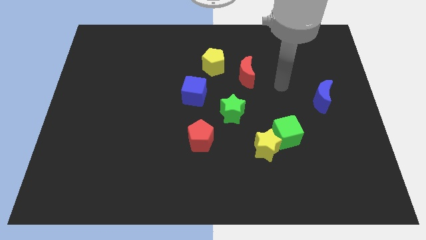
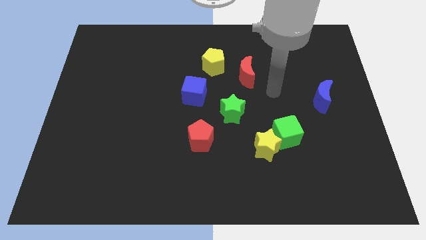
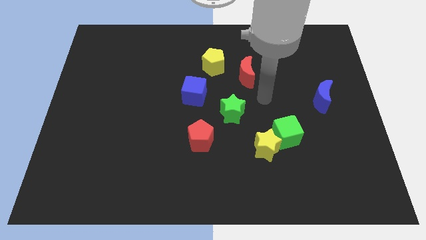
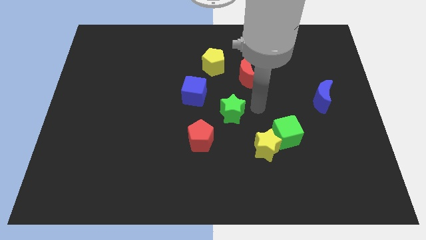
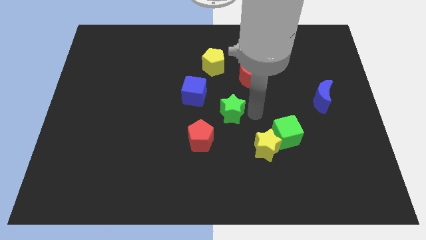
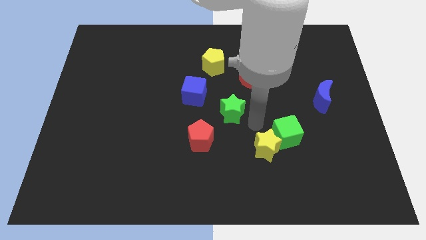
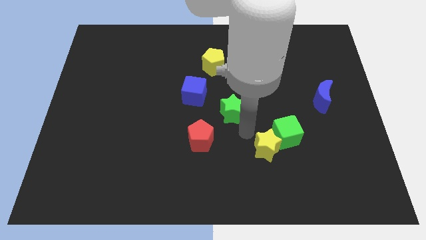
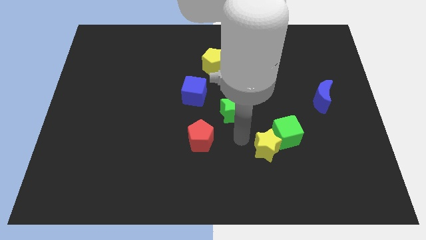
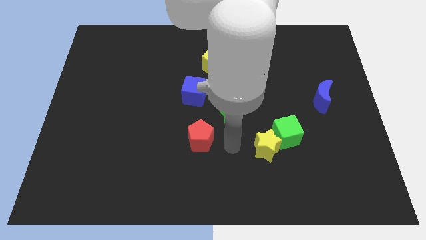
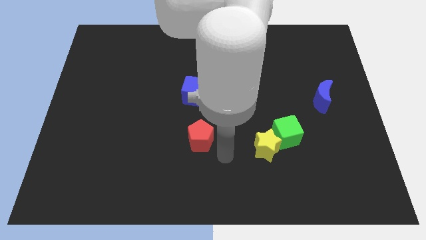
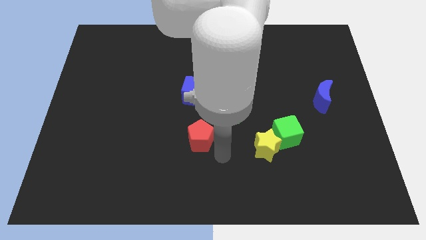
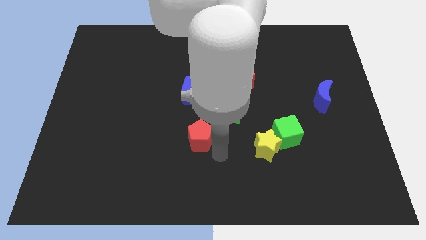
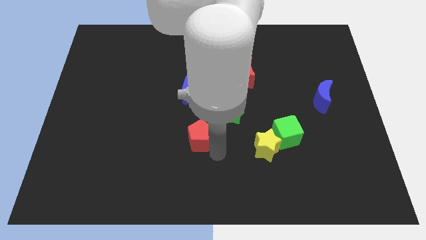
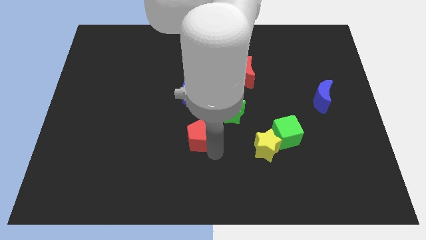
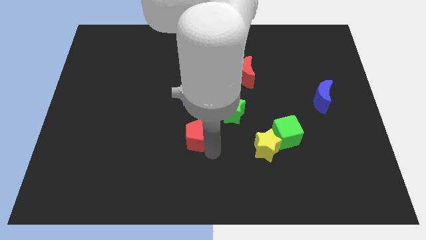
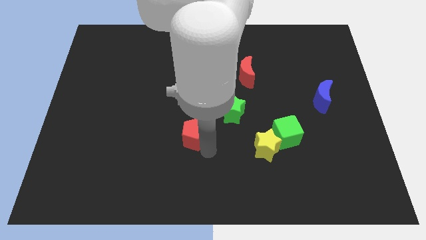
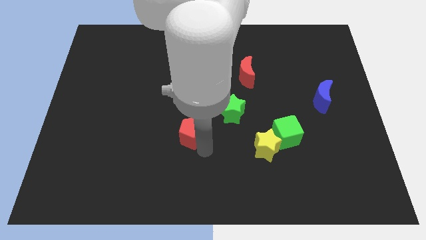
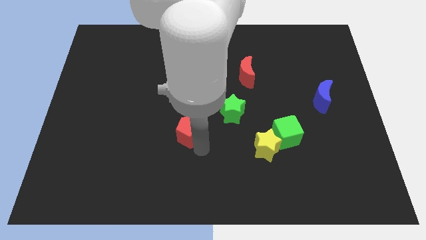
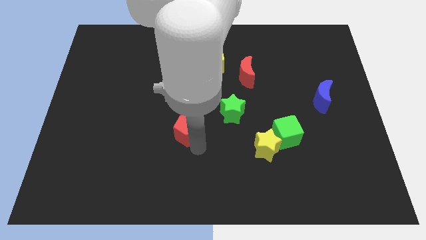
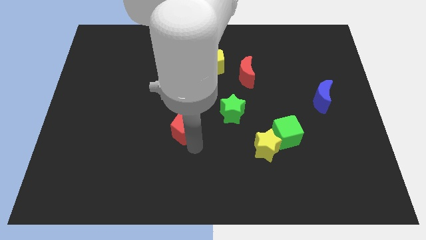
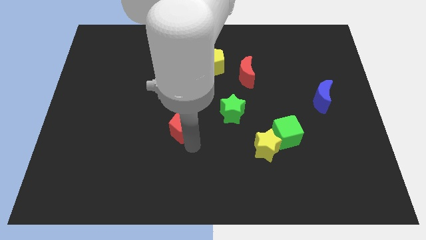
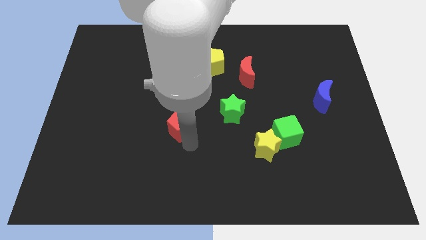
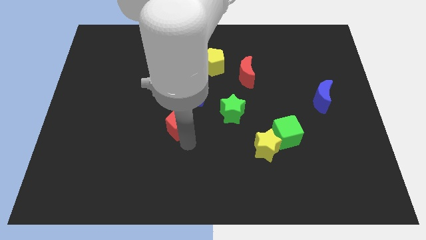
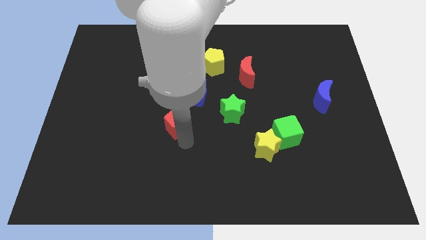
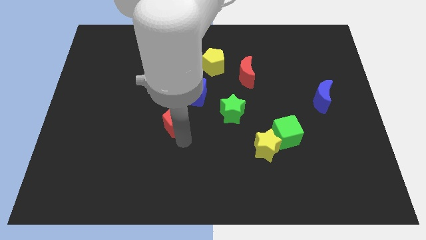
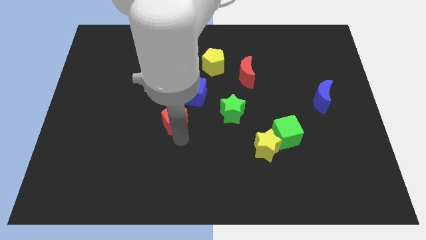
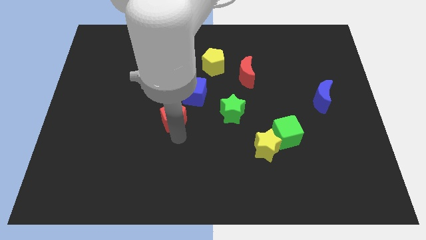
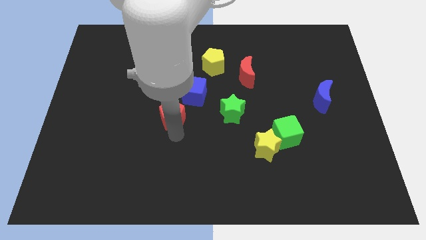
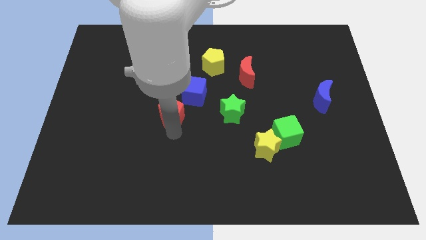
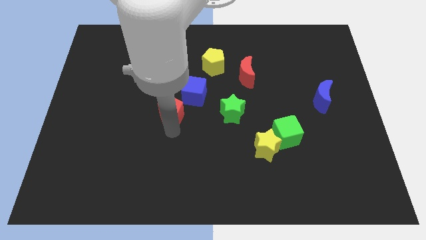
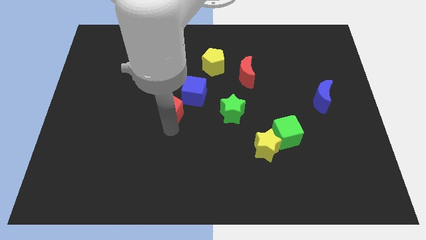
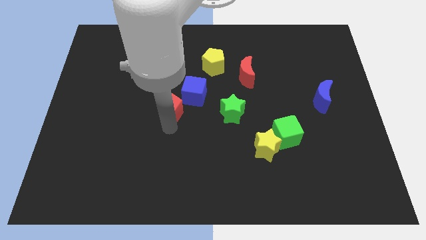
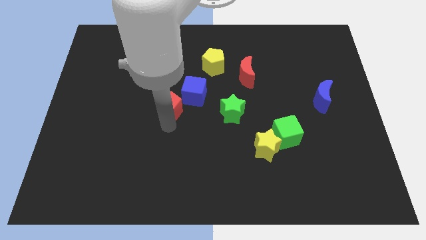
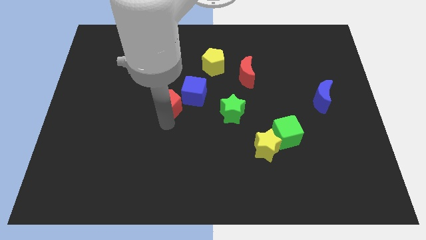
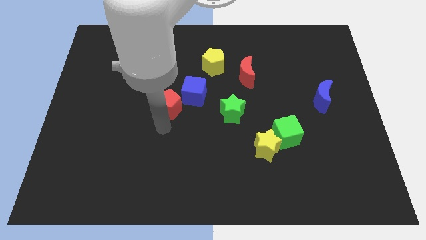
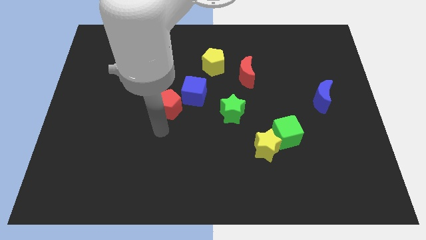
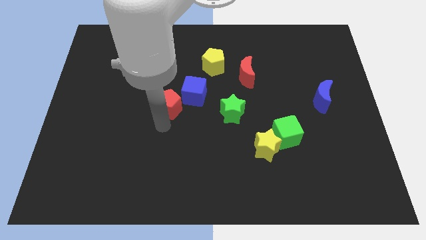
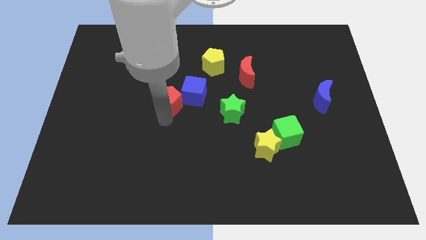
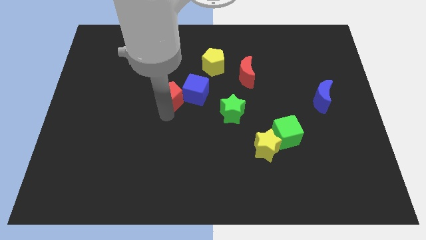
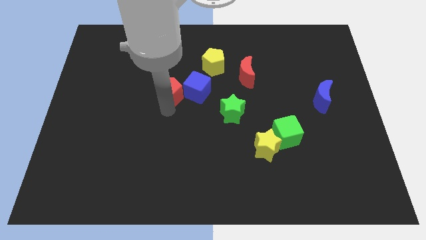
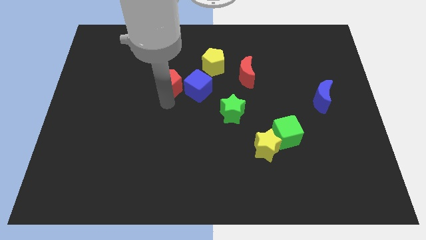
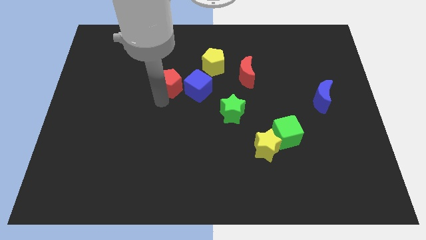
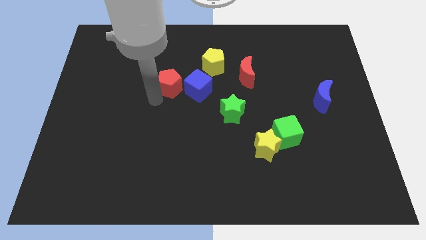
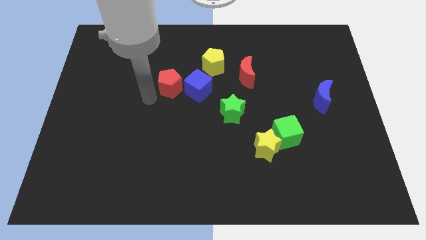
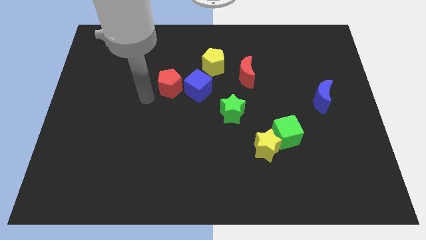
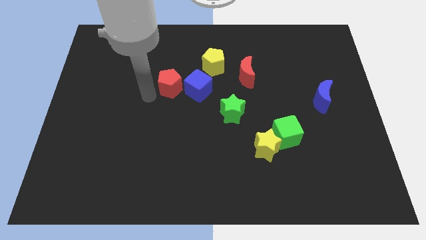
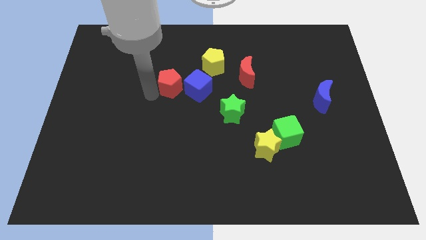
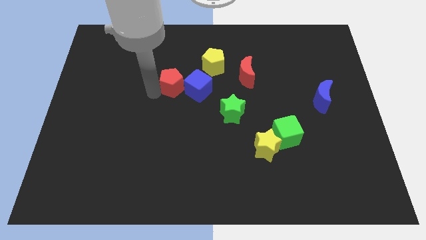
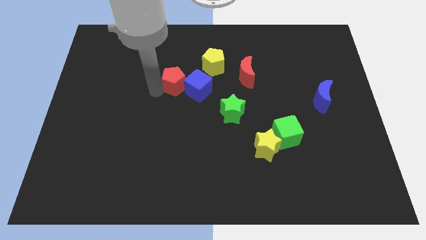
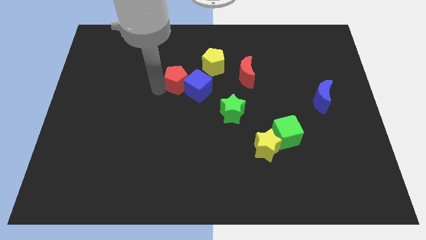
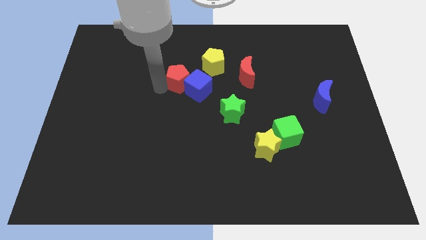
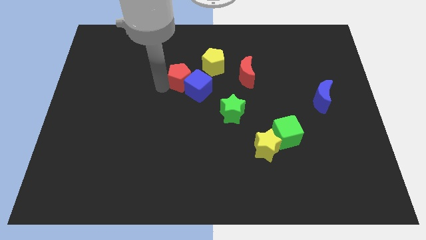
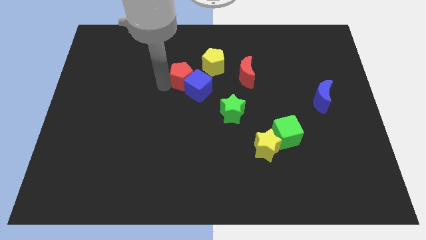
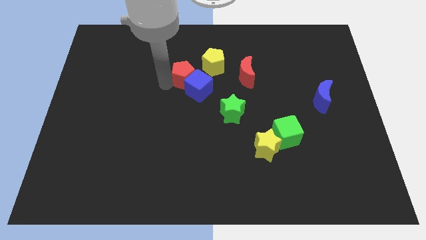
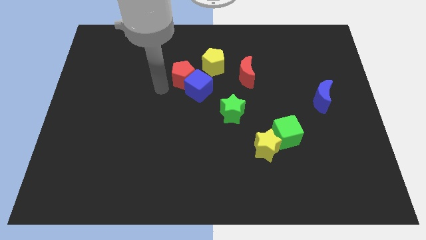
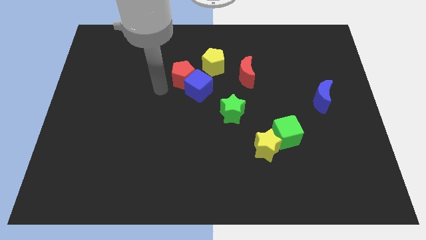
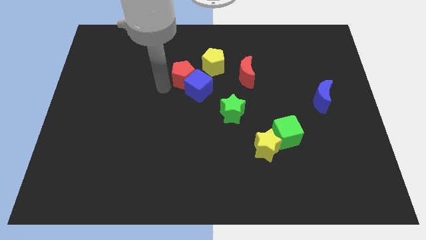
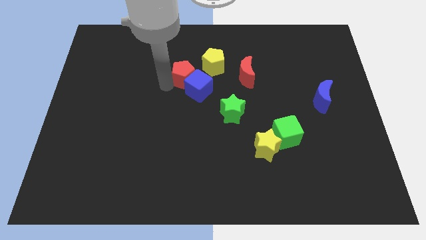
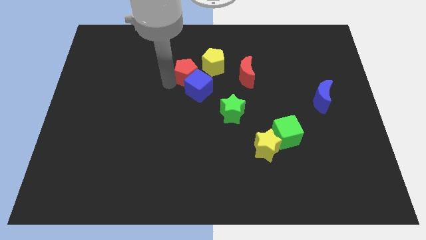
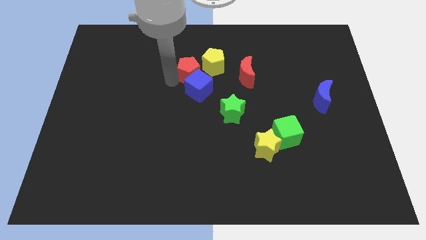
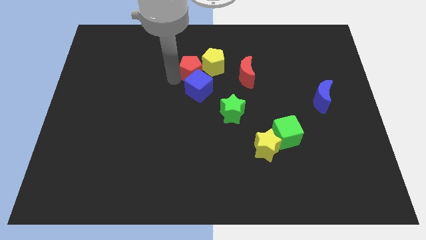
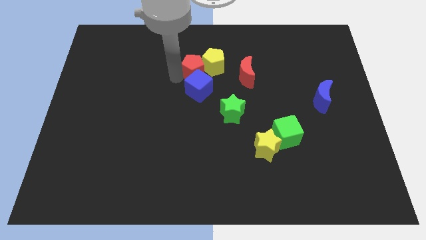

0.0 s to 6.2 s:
move the red pentagon next to the yellow pentagon

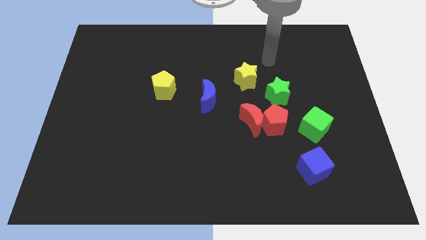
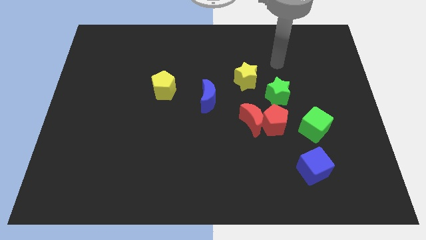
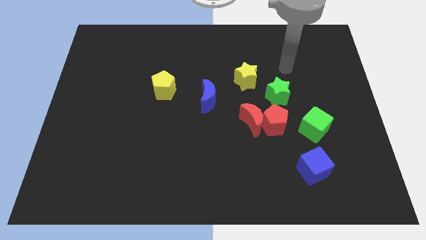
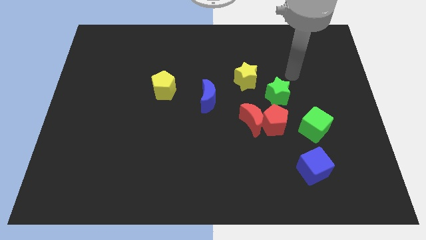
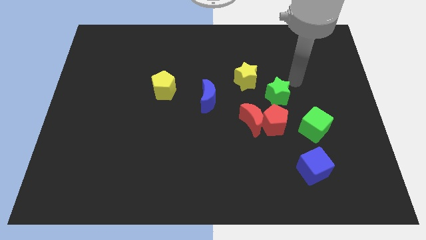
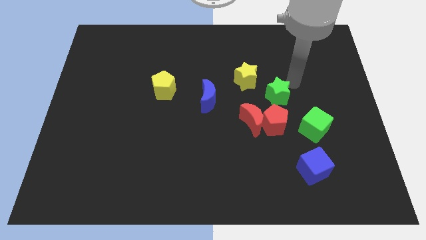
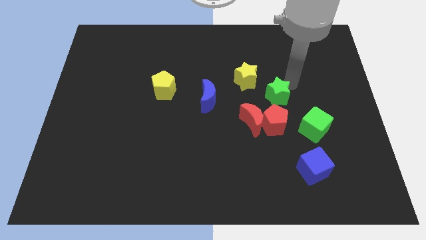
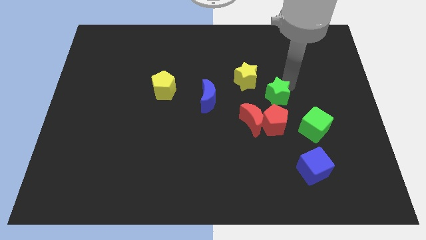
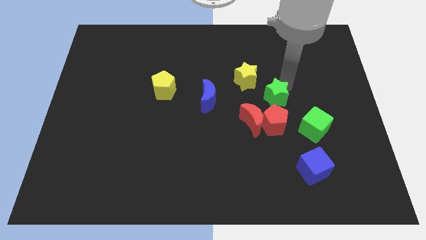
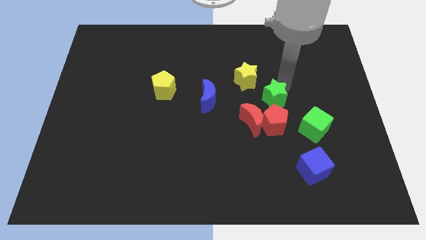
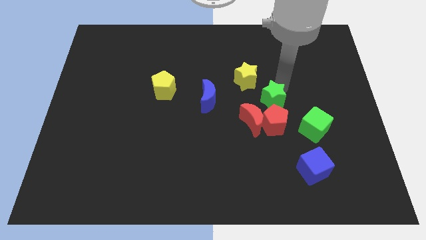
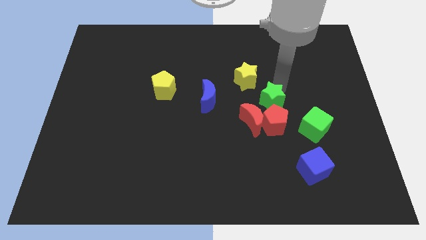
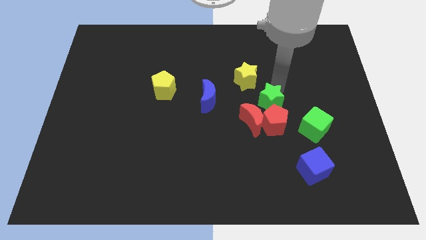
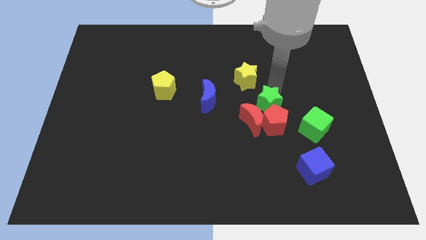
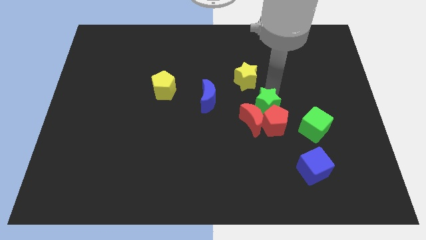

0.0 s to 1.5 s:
push the green star close to the red moon
